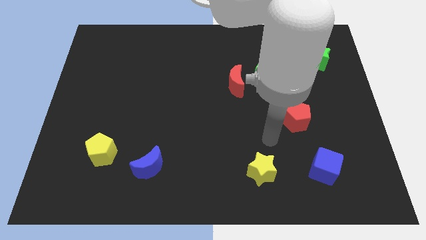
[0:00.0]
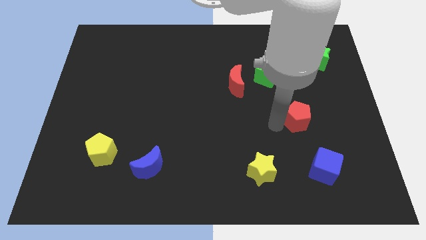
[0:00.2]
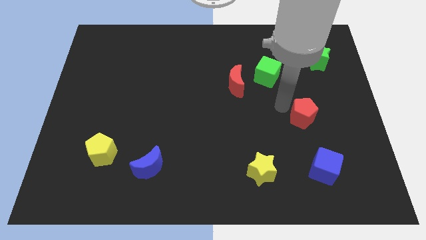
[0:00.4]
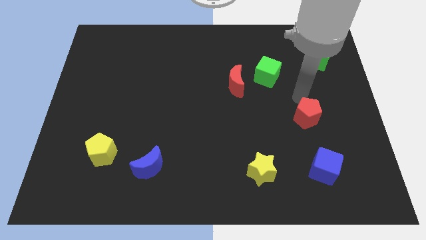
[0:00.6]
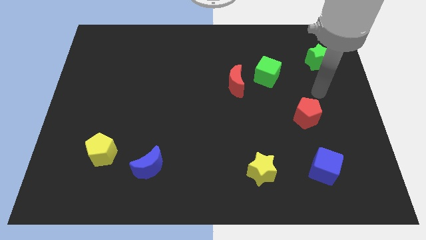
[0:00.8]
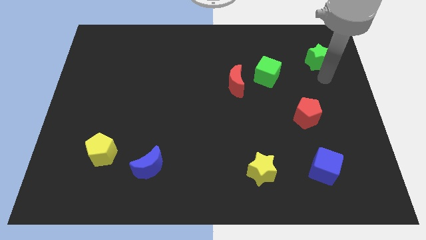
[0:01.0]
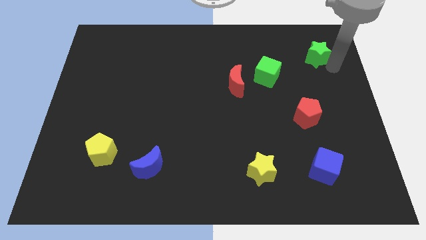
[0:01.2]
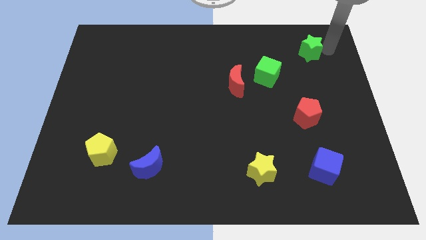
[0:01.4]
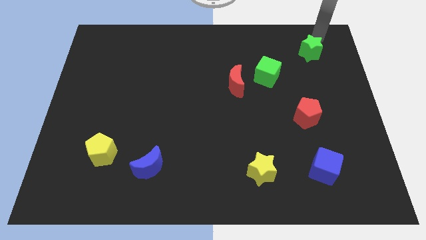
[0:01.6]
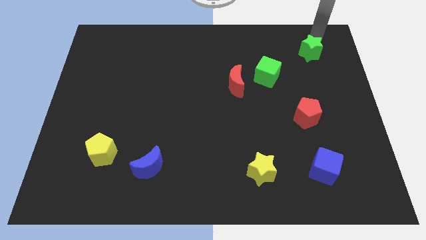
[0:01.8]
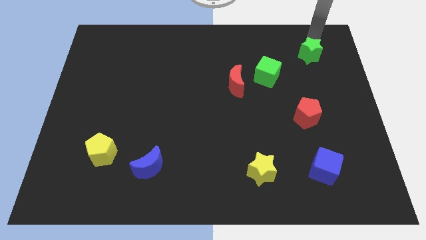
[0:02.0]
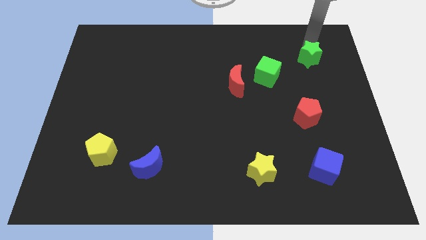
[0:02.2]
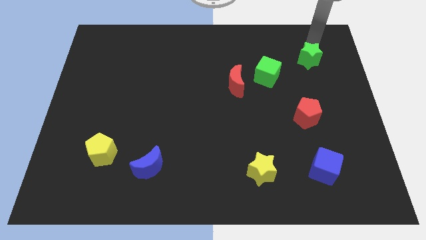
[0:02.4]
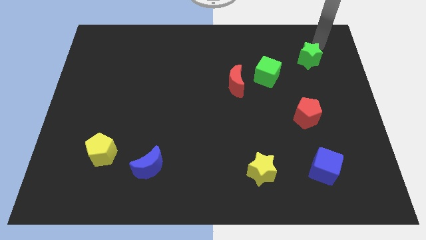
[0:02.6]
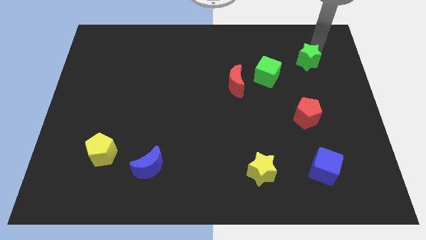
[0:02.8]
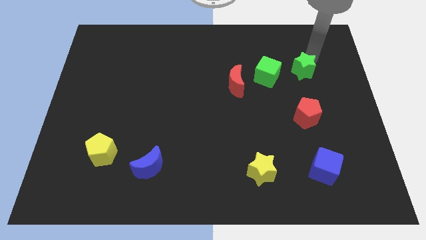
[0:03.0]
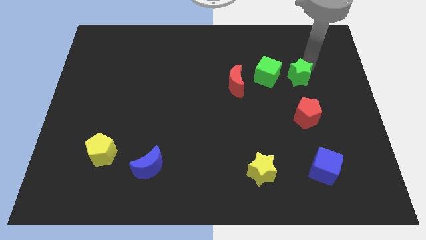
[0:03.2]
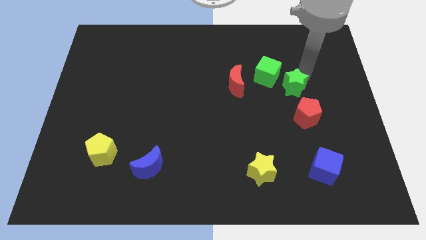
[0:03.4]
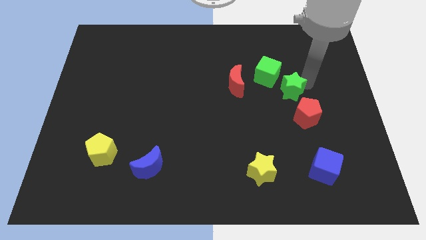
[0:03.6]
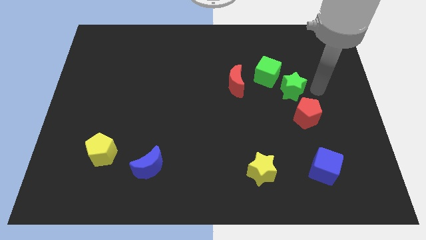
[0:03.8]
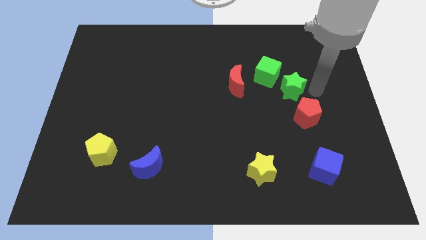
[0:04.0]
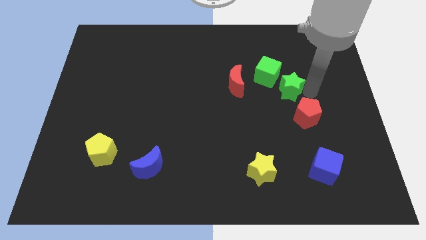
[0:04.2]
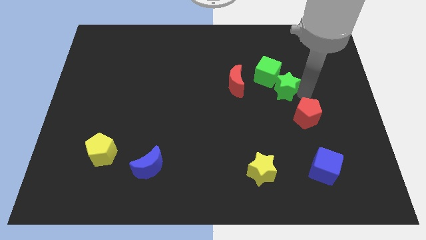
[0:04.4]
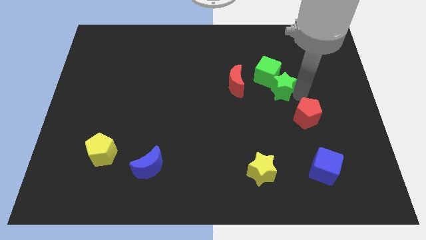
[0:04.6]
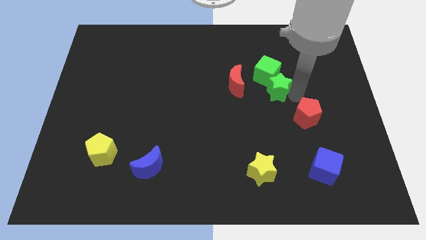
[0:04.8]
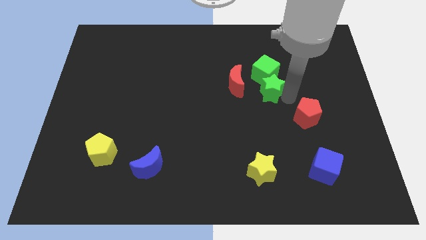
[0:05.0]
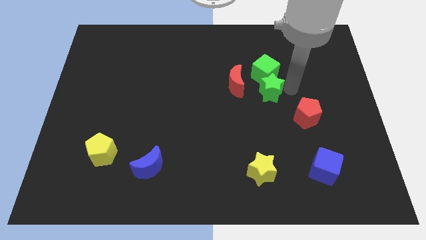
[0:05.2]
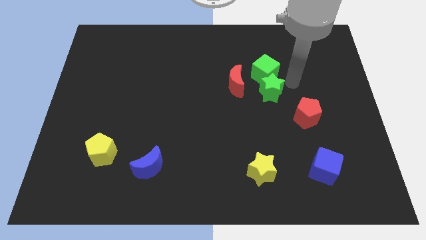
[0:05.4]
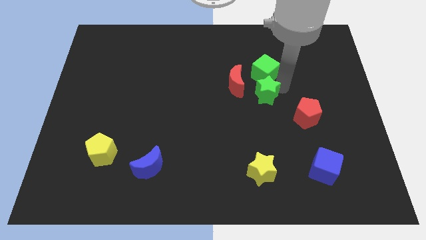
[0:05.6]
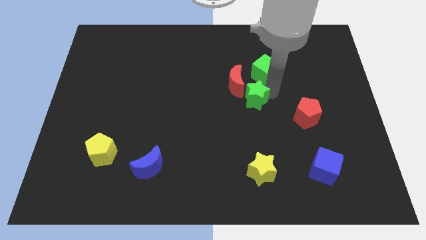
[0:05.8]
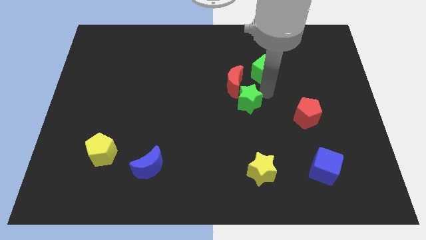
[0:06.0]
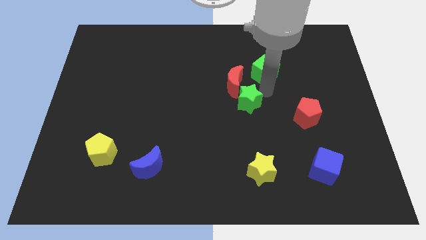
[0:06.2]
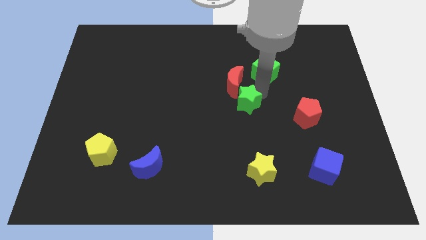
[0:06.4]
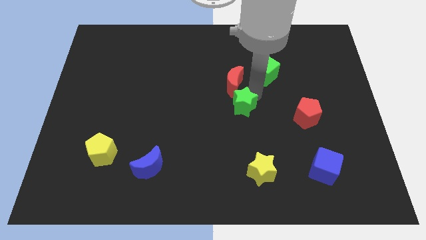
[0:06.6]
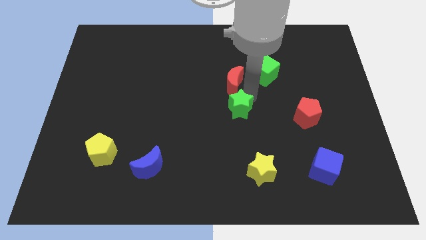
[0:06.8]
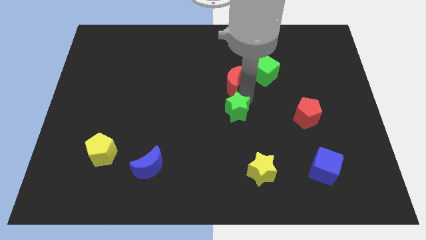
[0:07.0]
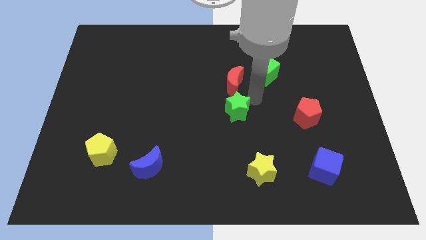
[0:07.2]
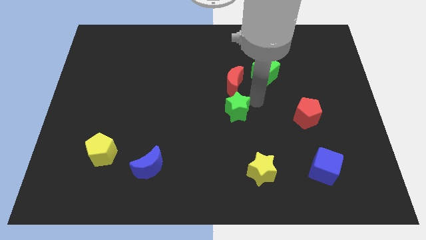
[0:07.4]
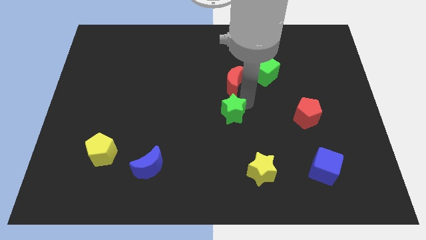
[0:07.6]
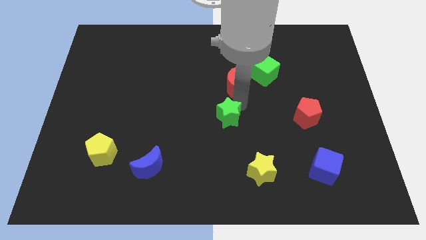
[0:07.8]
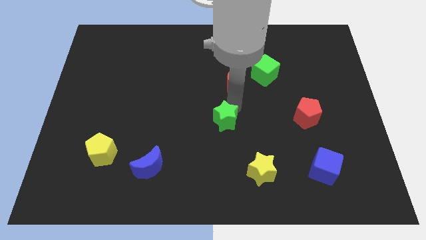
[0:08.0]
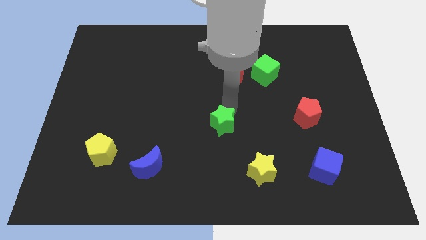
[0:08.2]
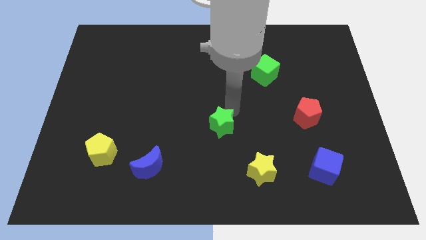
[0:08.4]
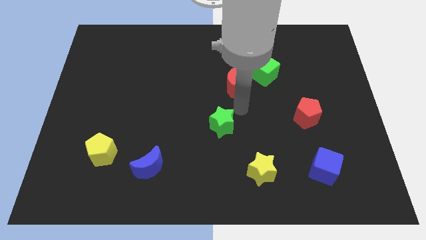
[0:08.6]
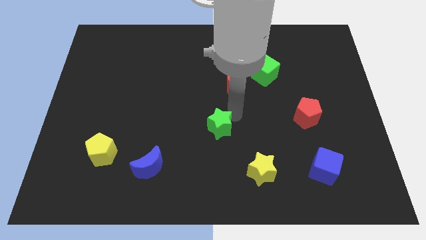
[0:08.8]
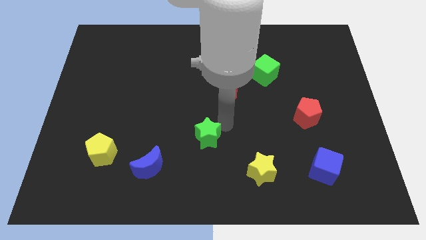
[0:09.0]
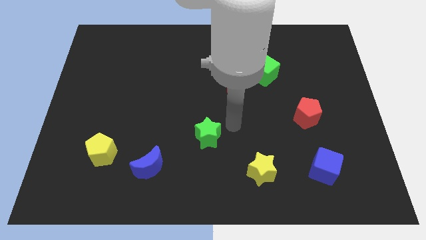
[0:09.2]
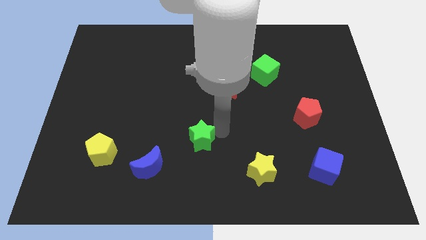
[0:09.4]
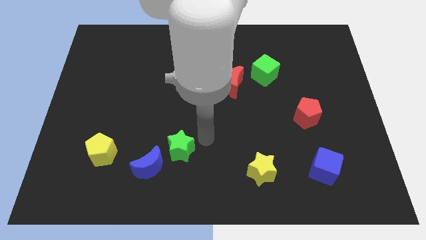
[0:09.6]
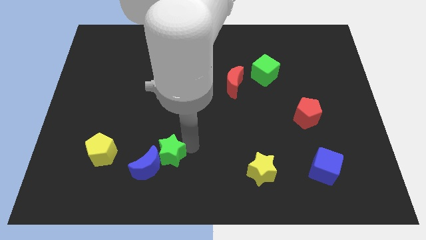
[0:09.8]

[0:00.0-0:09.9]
push the green star next to the blue moon

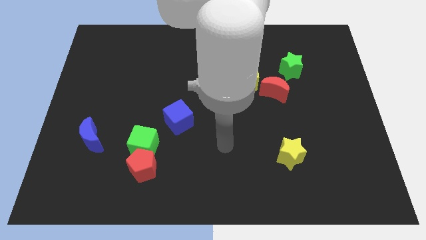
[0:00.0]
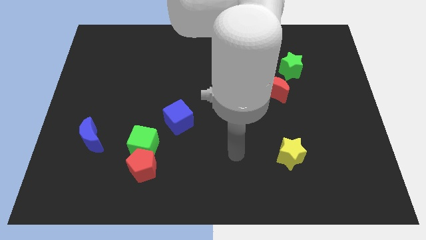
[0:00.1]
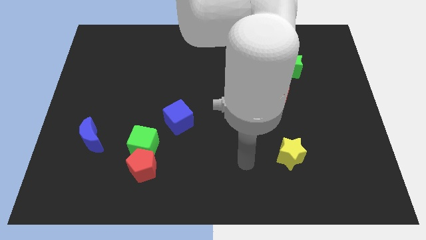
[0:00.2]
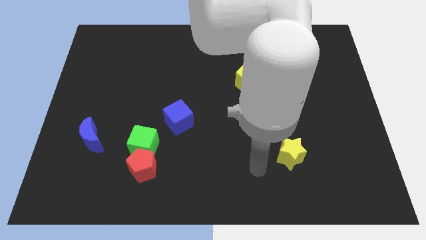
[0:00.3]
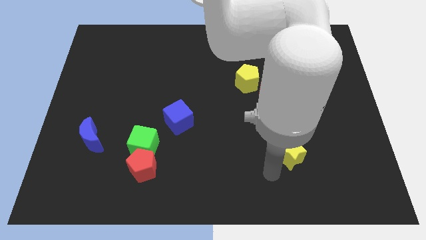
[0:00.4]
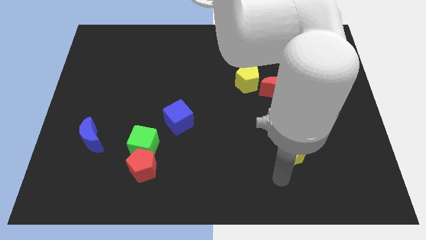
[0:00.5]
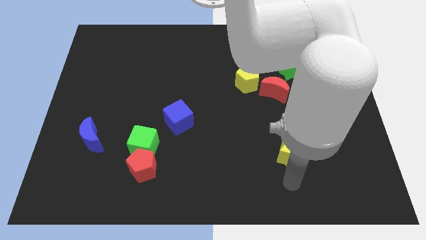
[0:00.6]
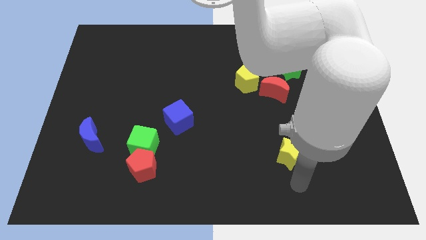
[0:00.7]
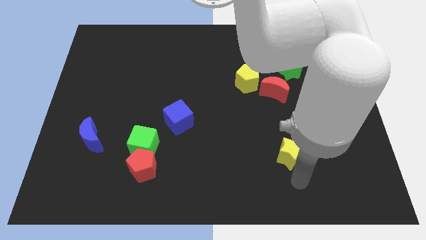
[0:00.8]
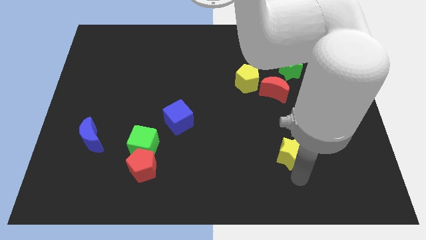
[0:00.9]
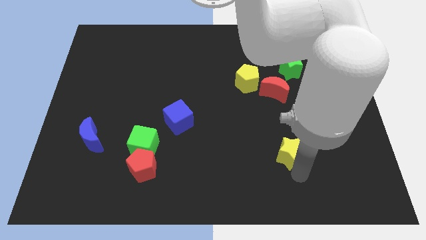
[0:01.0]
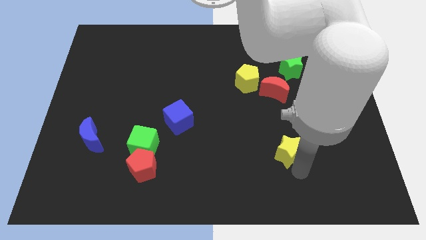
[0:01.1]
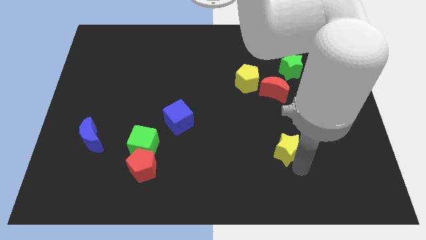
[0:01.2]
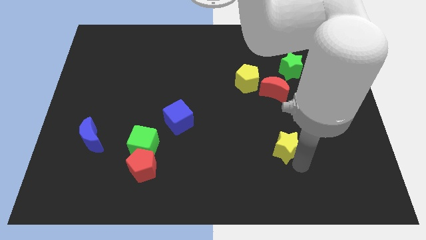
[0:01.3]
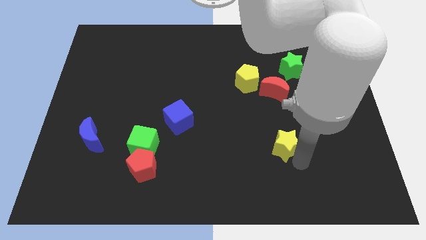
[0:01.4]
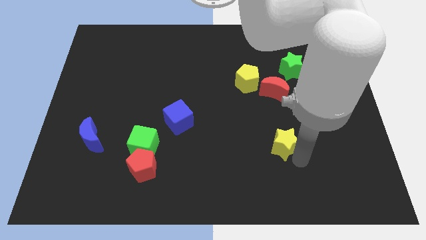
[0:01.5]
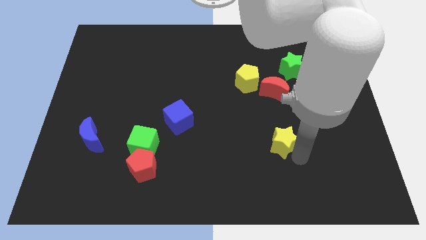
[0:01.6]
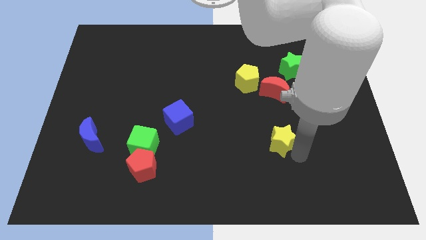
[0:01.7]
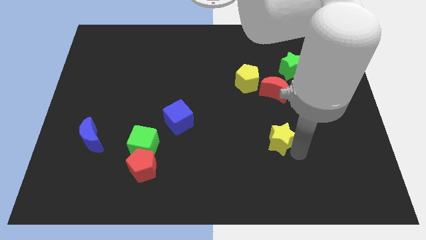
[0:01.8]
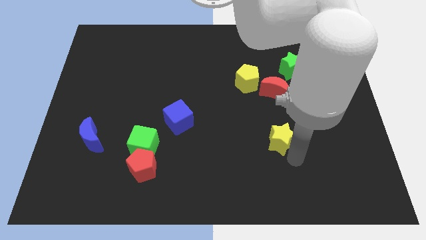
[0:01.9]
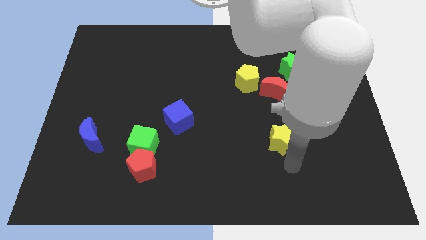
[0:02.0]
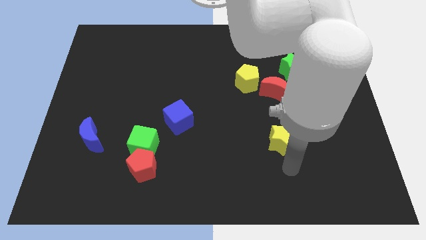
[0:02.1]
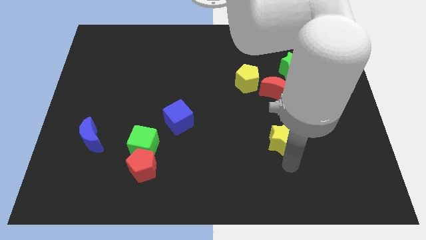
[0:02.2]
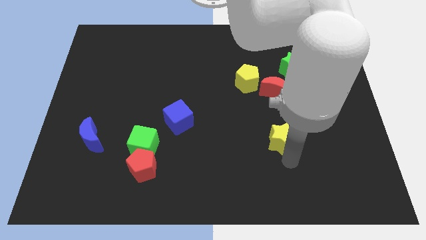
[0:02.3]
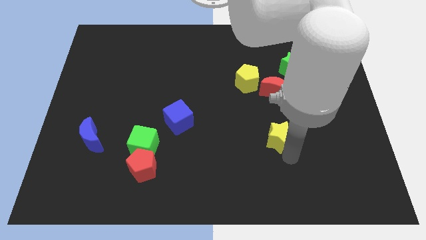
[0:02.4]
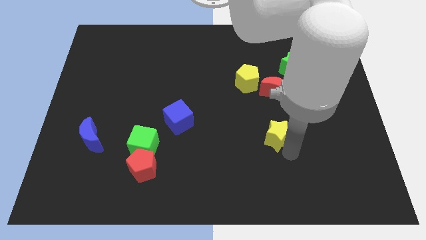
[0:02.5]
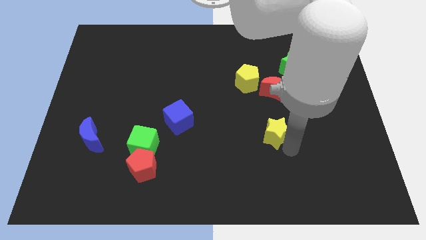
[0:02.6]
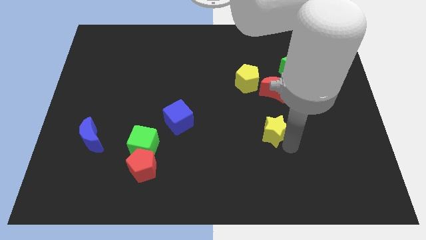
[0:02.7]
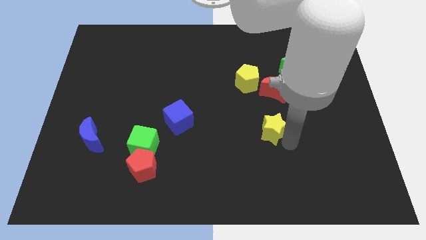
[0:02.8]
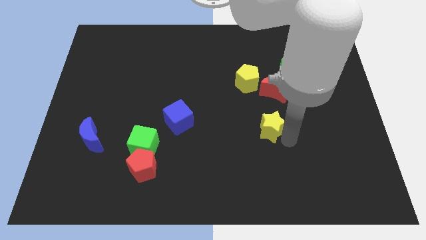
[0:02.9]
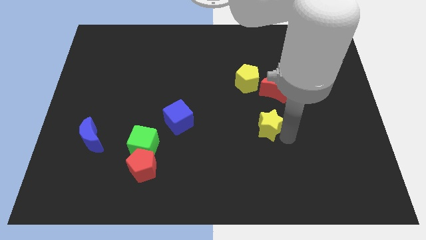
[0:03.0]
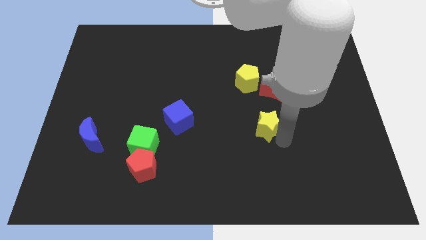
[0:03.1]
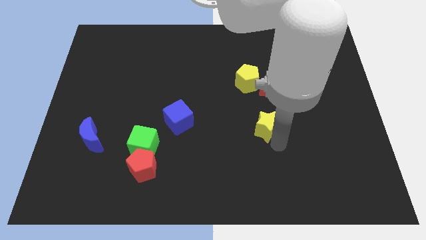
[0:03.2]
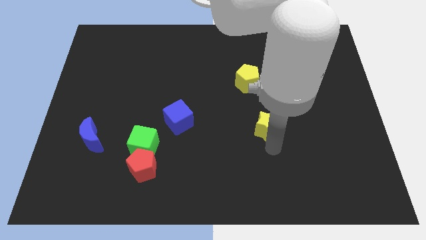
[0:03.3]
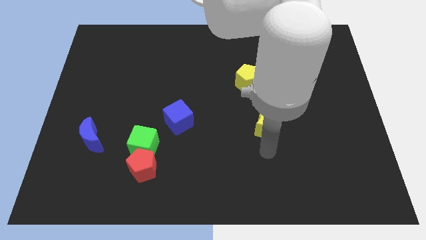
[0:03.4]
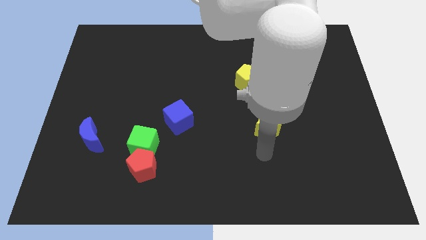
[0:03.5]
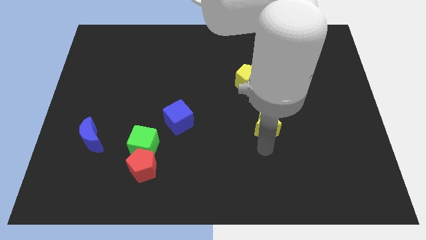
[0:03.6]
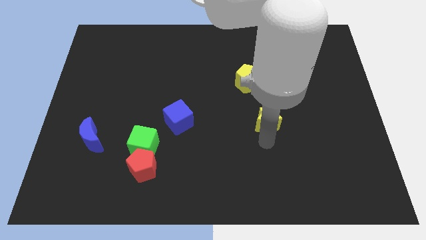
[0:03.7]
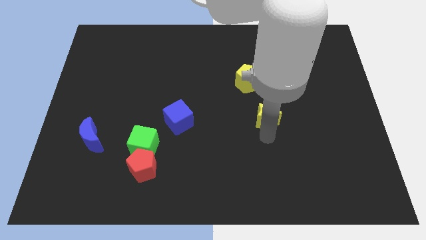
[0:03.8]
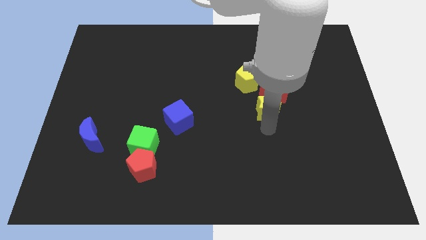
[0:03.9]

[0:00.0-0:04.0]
put the yellow star close to the red moon
